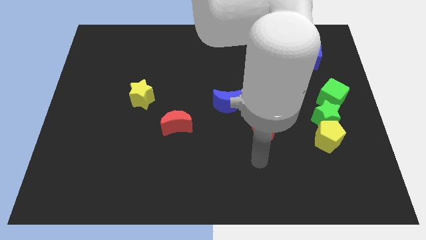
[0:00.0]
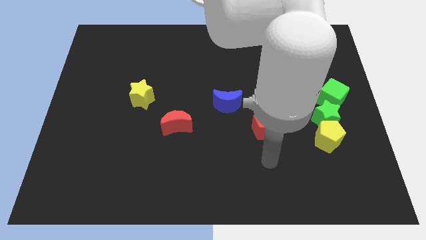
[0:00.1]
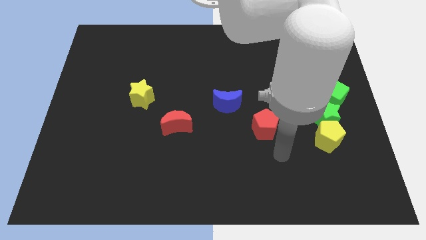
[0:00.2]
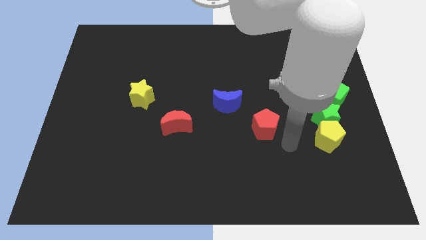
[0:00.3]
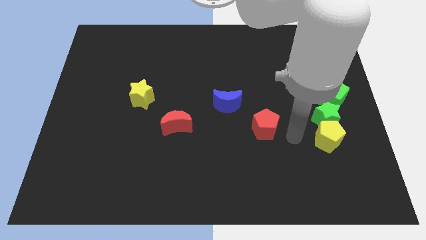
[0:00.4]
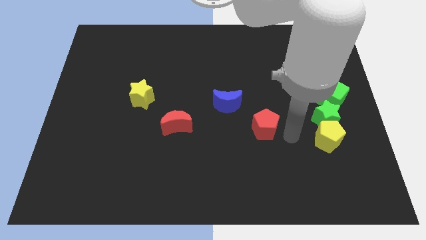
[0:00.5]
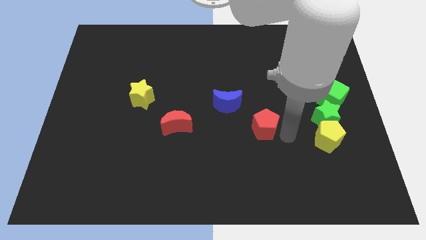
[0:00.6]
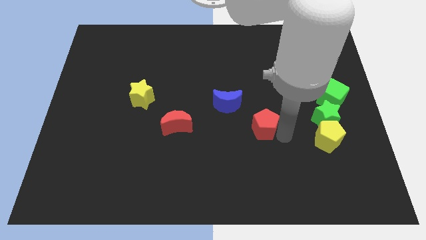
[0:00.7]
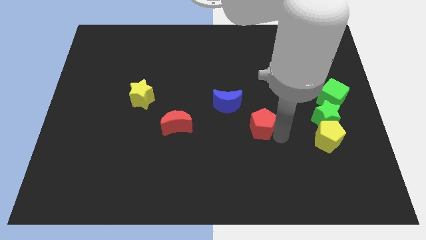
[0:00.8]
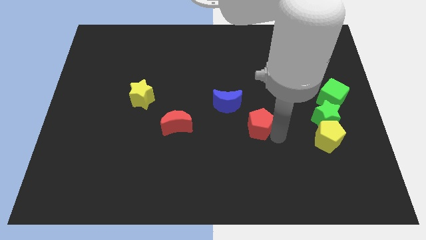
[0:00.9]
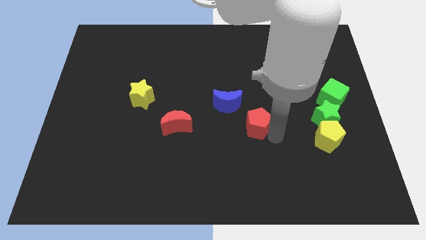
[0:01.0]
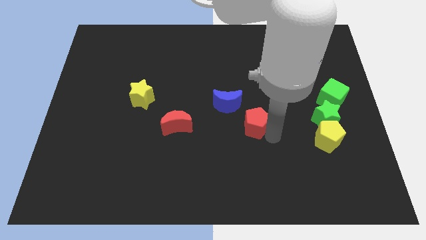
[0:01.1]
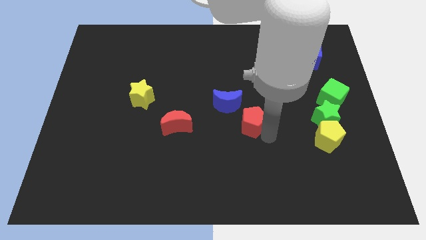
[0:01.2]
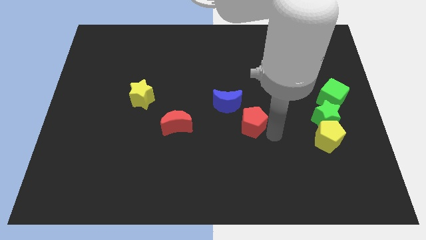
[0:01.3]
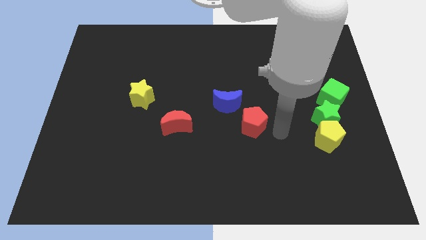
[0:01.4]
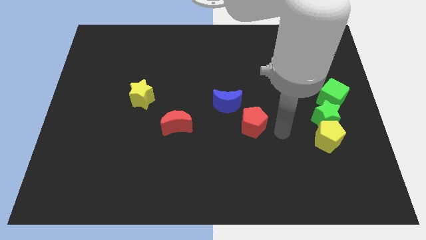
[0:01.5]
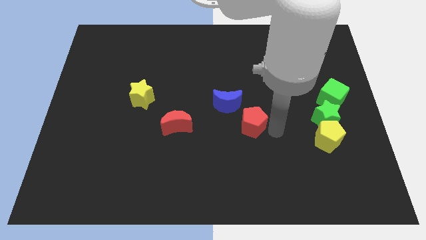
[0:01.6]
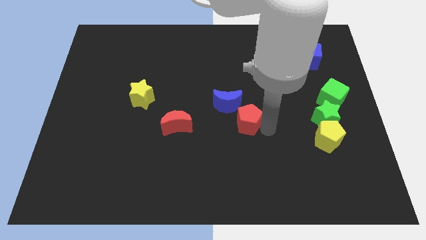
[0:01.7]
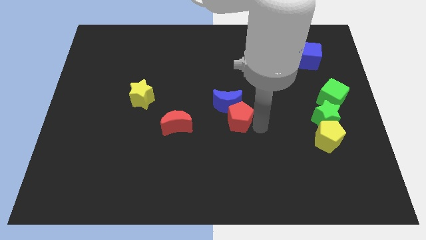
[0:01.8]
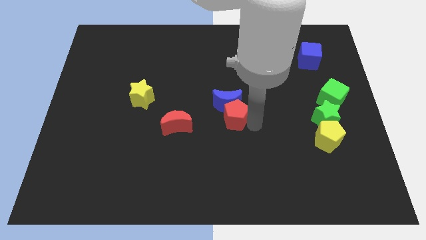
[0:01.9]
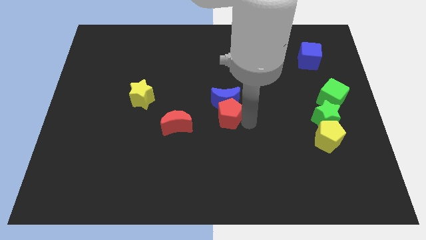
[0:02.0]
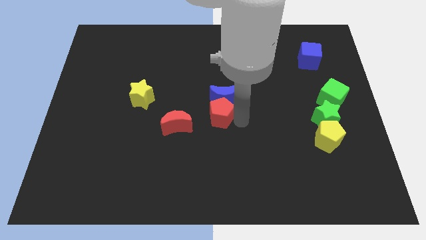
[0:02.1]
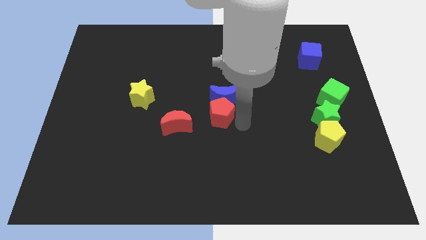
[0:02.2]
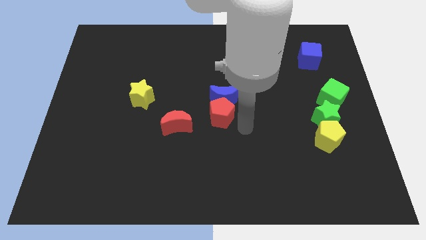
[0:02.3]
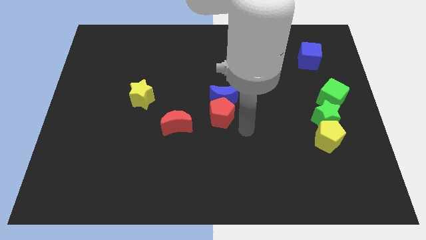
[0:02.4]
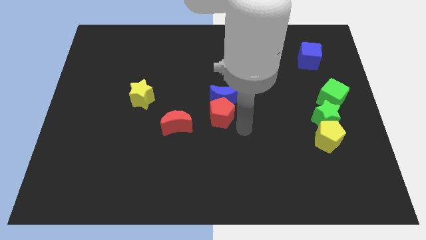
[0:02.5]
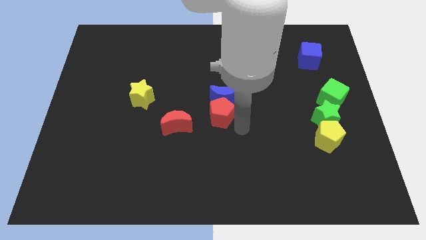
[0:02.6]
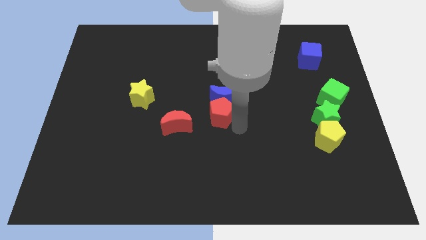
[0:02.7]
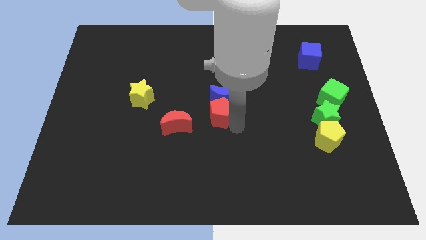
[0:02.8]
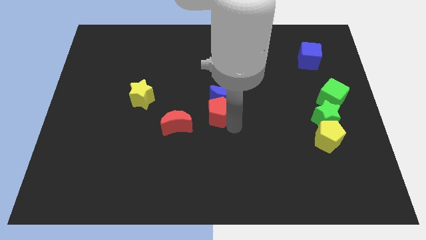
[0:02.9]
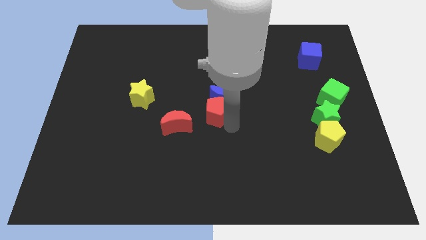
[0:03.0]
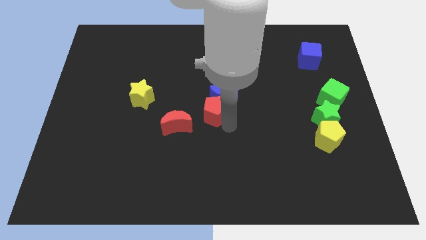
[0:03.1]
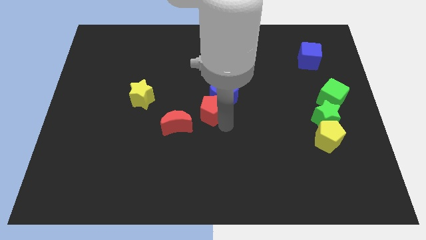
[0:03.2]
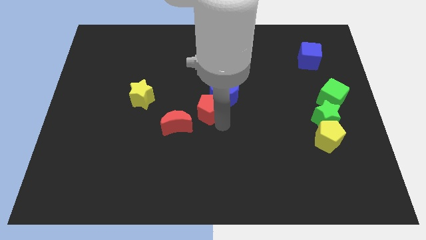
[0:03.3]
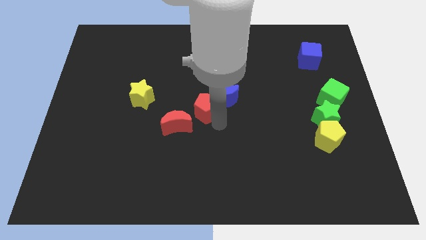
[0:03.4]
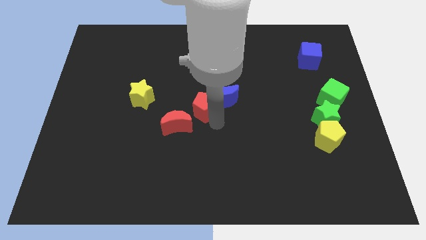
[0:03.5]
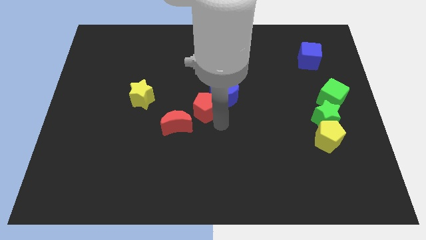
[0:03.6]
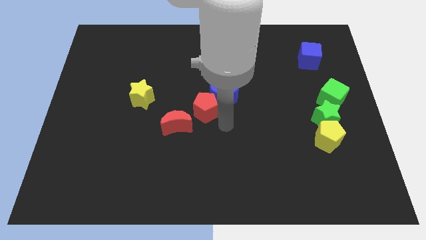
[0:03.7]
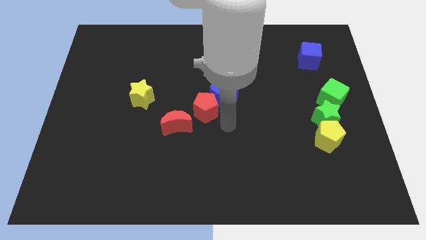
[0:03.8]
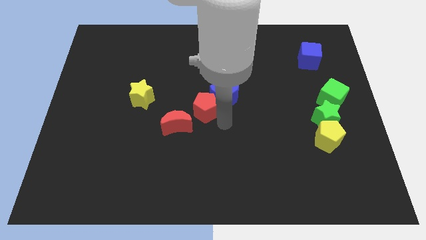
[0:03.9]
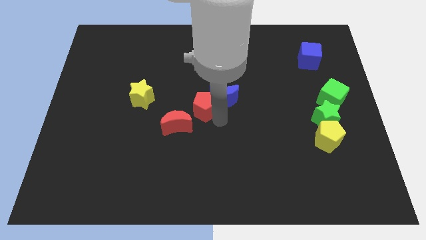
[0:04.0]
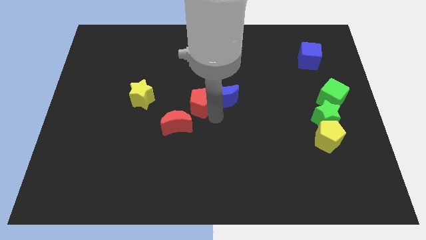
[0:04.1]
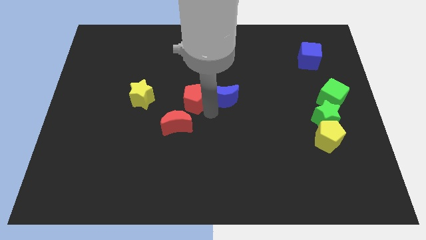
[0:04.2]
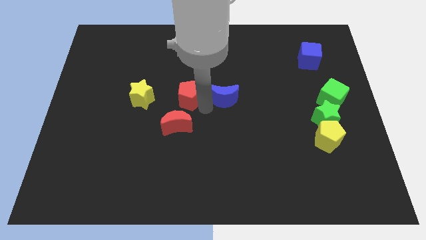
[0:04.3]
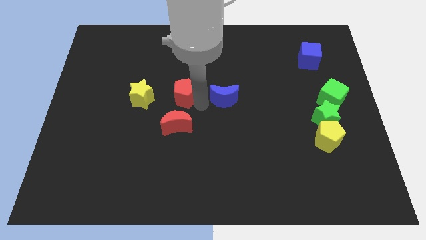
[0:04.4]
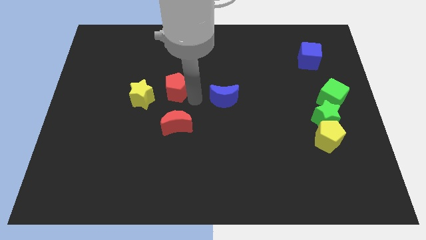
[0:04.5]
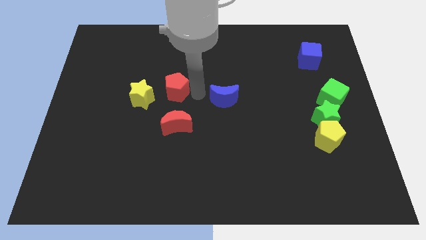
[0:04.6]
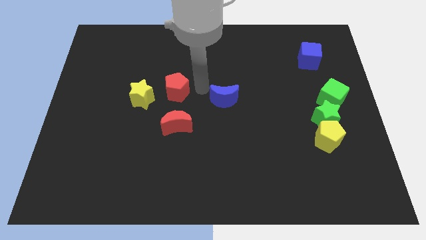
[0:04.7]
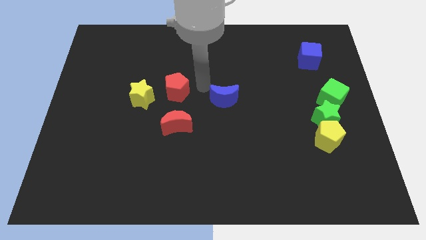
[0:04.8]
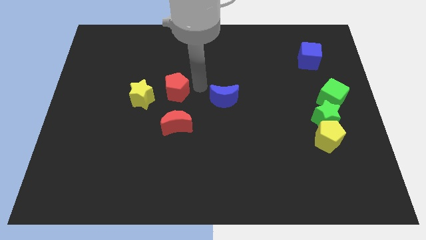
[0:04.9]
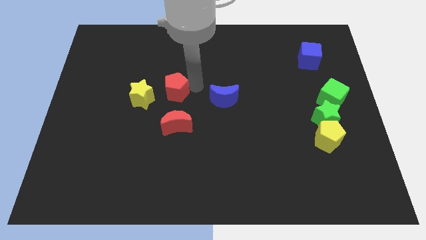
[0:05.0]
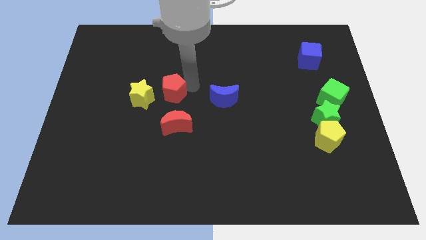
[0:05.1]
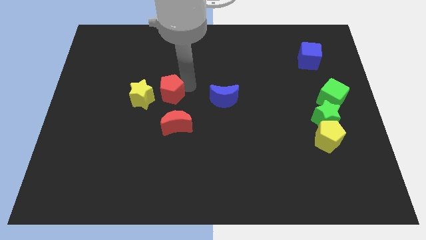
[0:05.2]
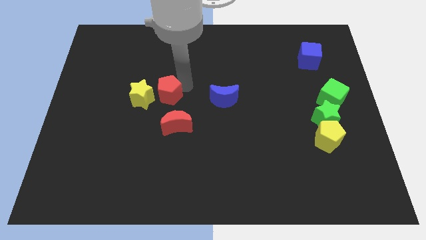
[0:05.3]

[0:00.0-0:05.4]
put the red pentagon close to the yellow star

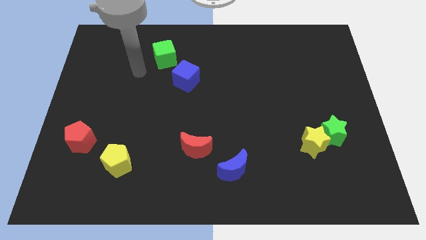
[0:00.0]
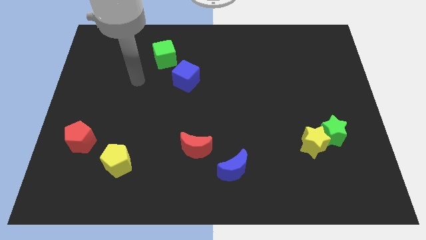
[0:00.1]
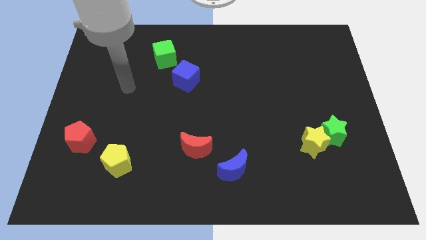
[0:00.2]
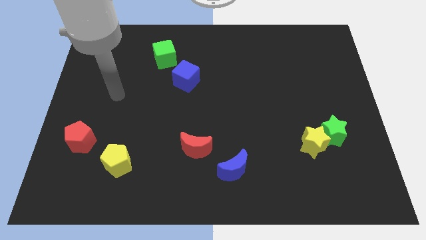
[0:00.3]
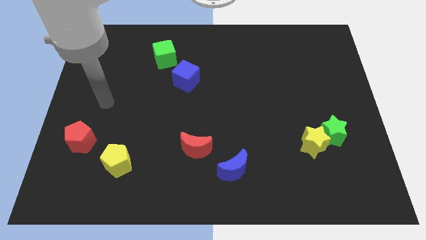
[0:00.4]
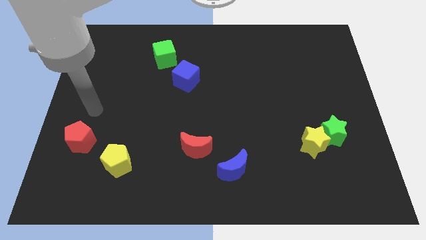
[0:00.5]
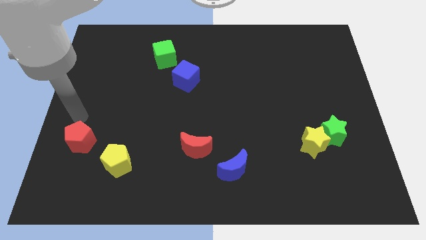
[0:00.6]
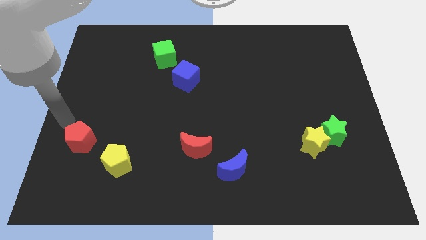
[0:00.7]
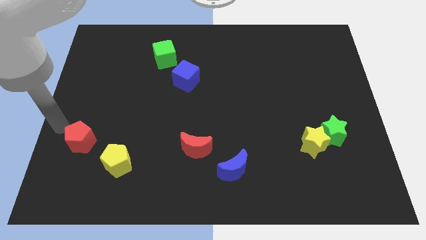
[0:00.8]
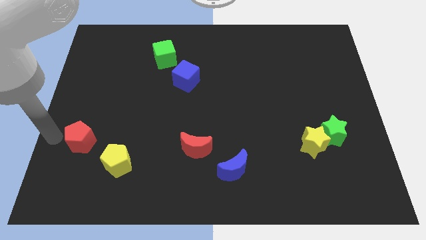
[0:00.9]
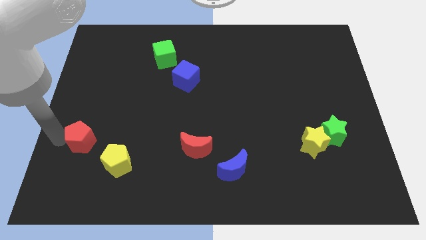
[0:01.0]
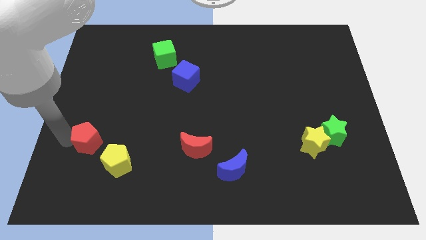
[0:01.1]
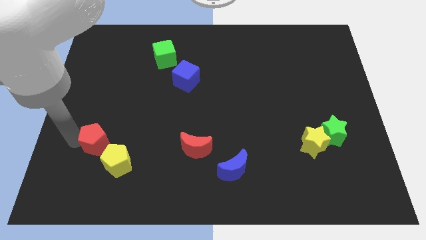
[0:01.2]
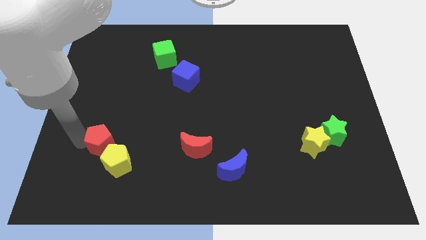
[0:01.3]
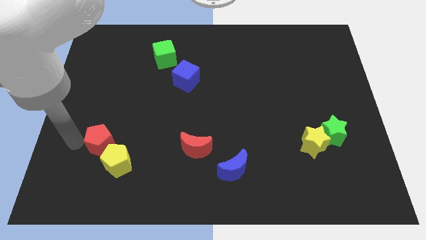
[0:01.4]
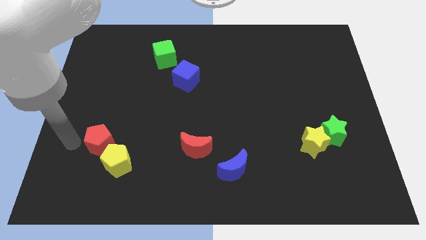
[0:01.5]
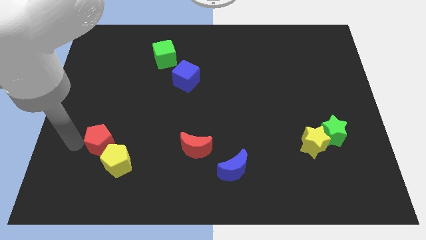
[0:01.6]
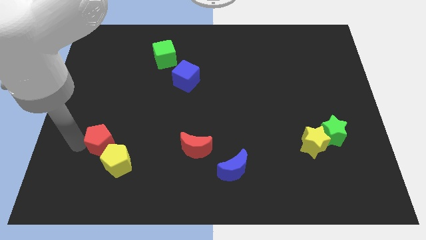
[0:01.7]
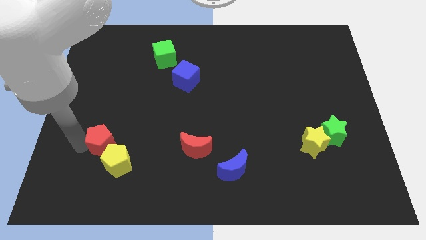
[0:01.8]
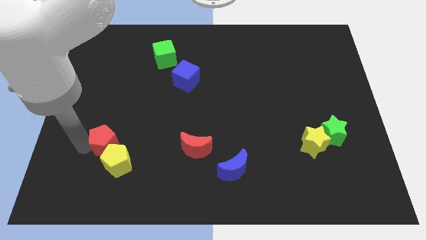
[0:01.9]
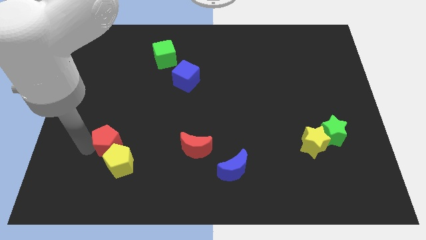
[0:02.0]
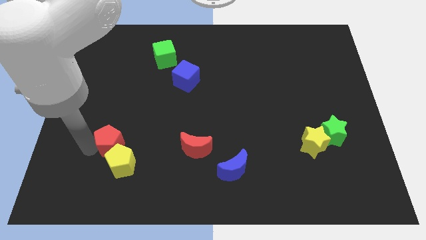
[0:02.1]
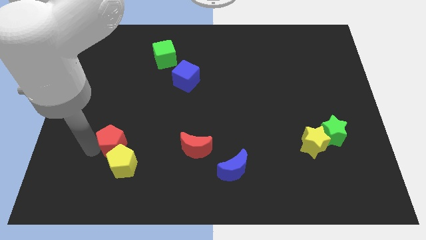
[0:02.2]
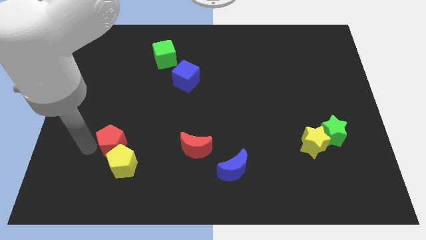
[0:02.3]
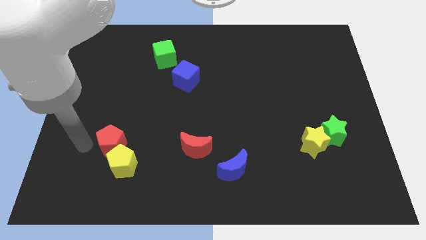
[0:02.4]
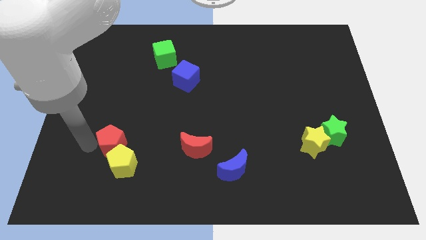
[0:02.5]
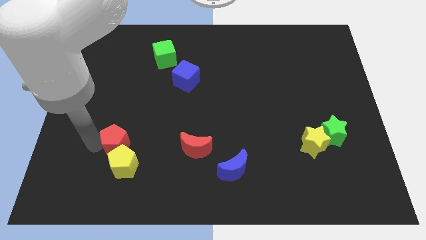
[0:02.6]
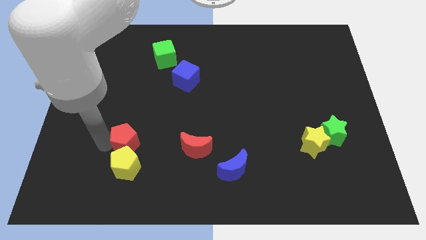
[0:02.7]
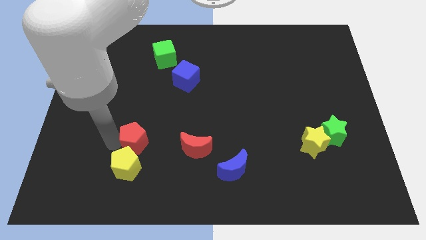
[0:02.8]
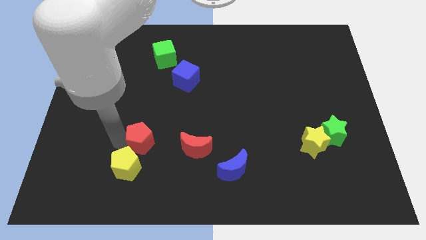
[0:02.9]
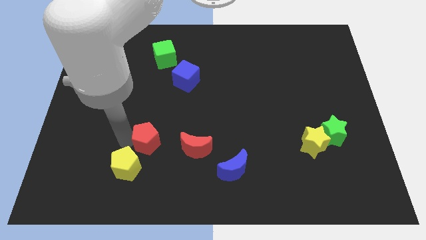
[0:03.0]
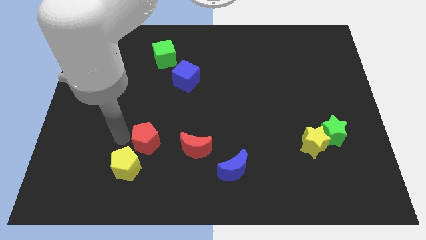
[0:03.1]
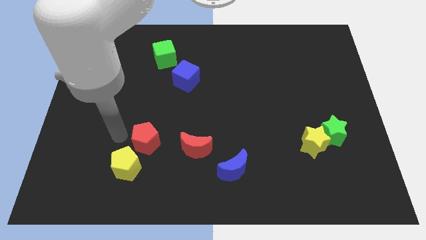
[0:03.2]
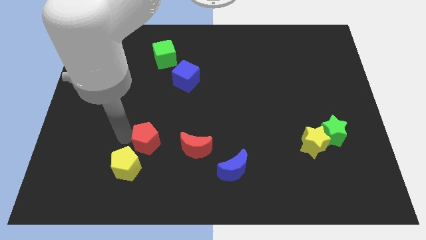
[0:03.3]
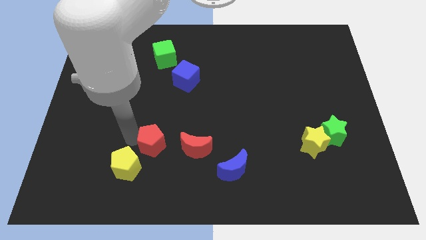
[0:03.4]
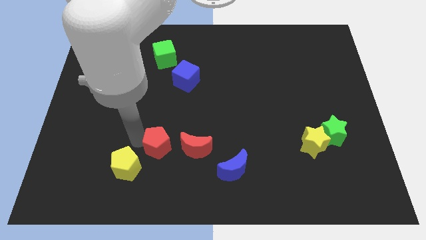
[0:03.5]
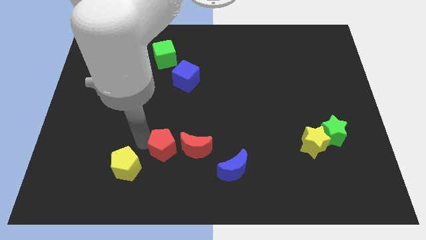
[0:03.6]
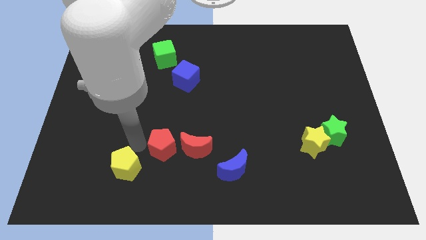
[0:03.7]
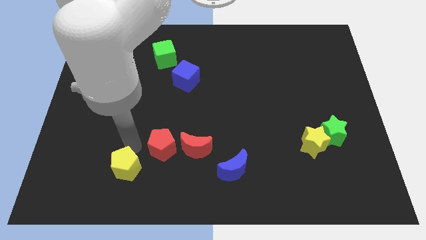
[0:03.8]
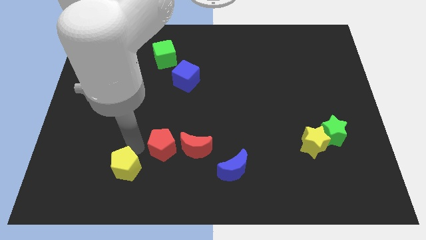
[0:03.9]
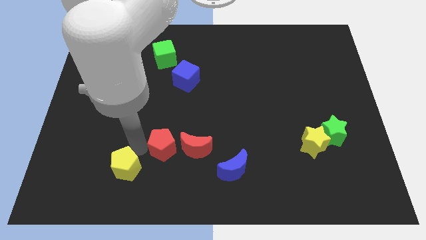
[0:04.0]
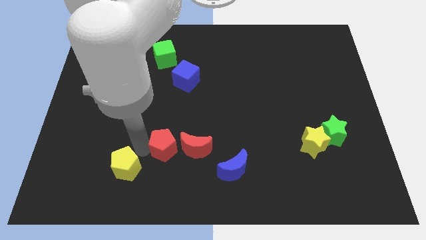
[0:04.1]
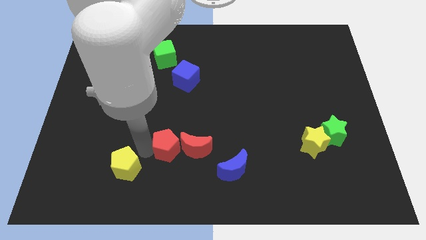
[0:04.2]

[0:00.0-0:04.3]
move the red pentagon next to the red moon
